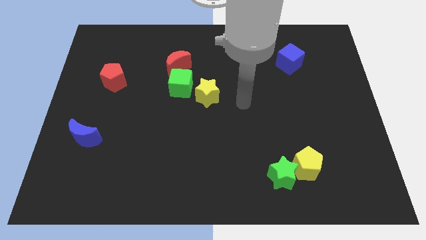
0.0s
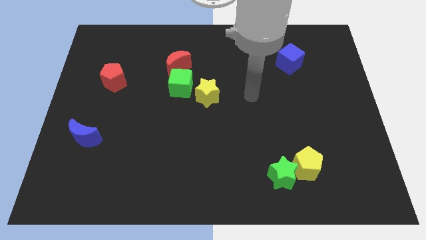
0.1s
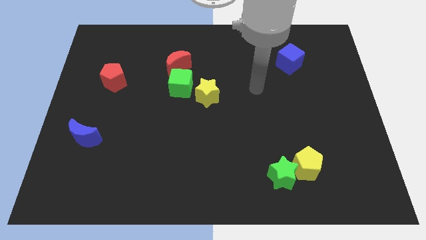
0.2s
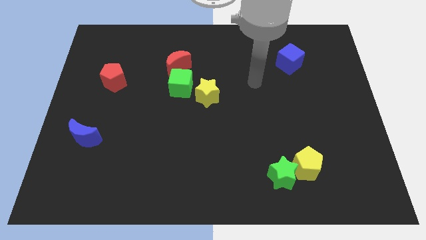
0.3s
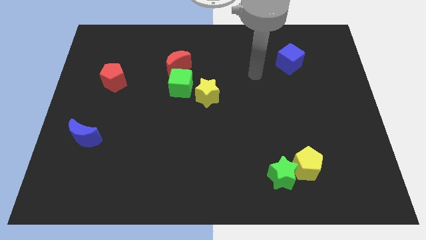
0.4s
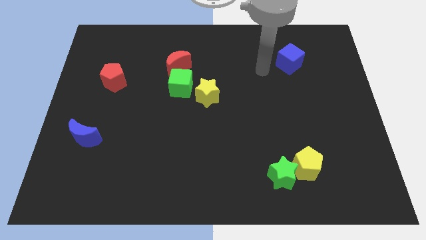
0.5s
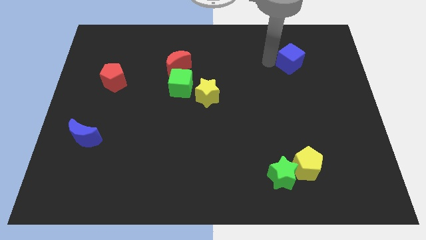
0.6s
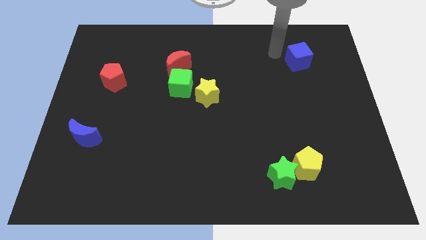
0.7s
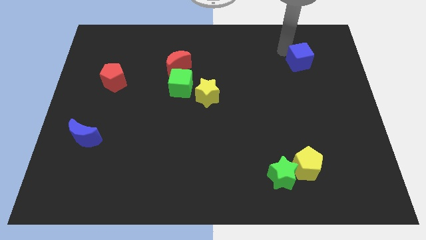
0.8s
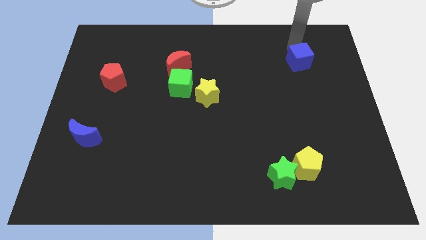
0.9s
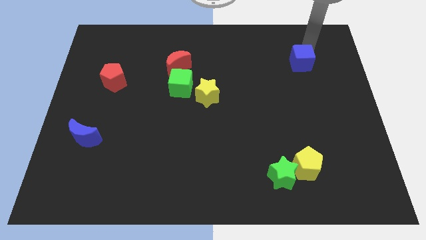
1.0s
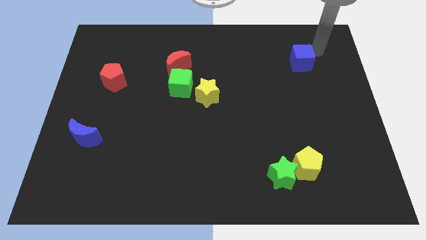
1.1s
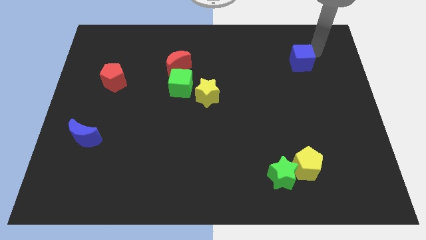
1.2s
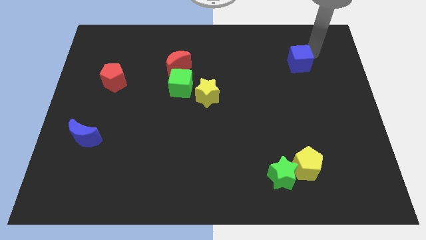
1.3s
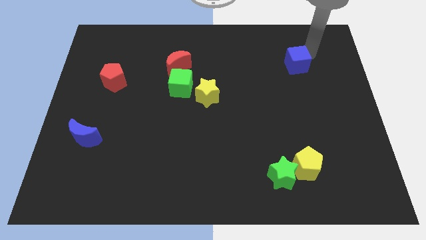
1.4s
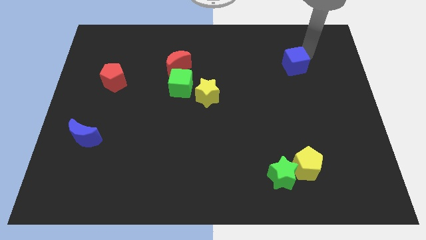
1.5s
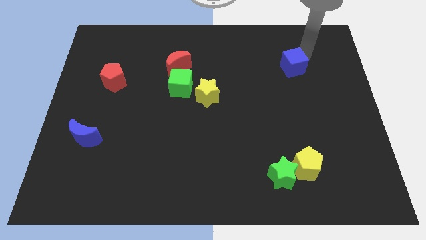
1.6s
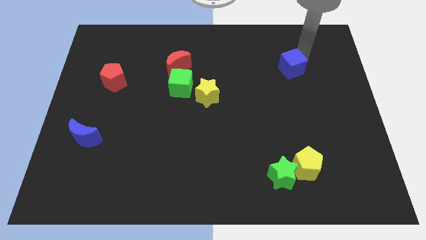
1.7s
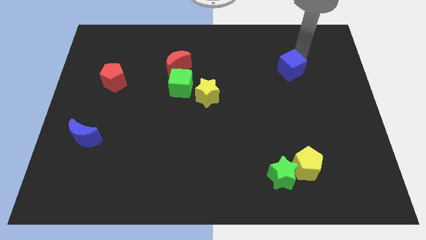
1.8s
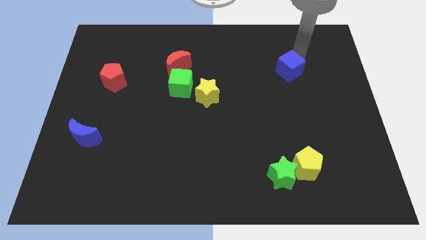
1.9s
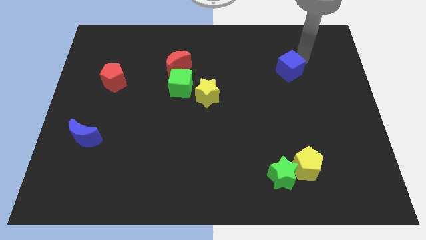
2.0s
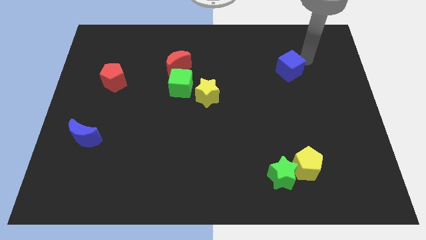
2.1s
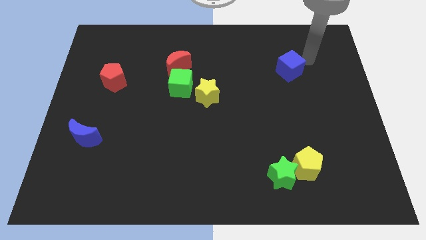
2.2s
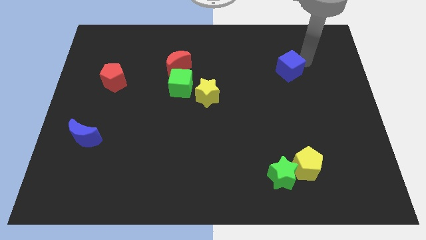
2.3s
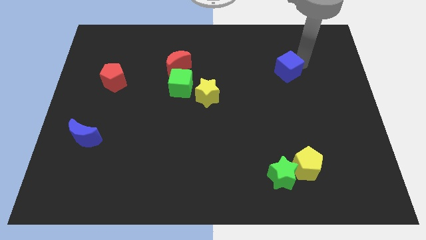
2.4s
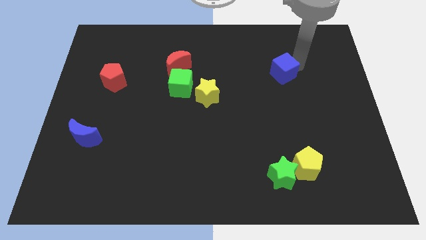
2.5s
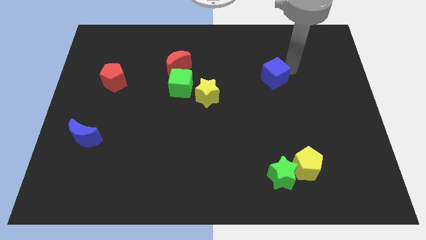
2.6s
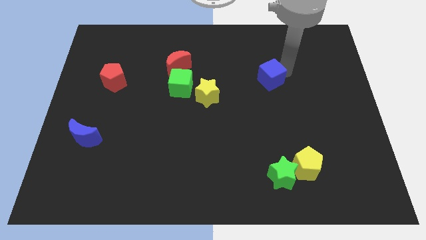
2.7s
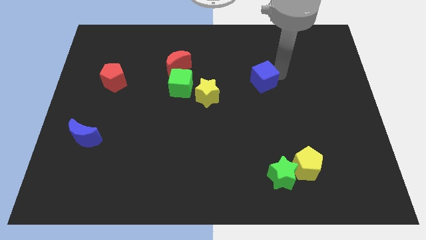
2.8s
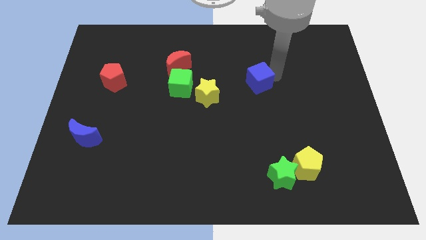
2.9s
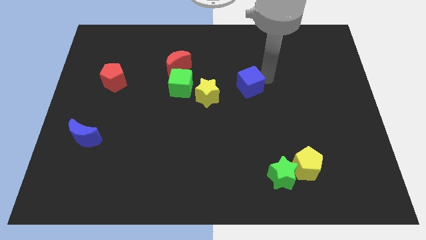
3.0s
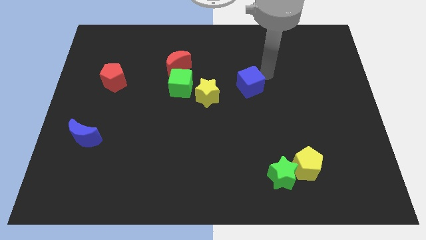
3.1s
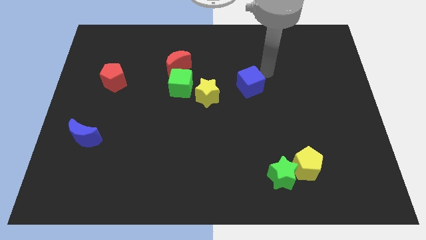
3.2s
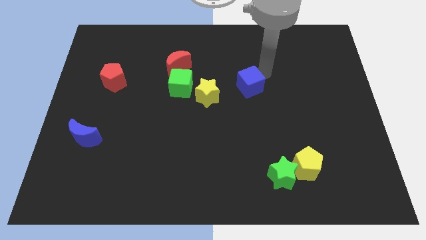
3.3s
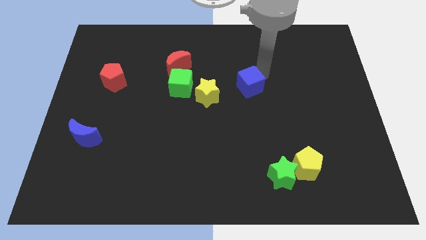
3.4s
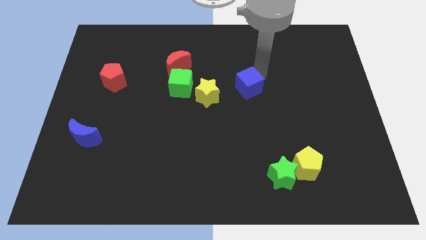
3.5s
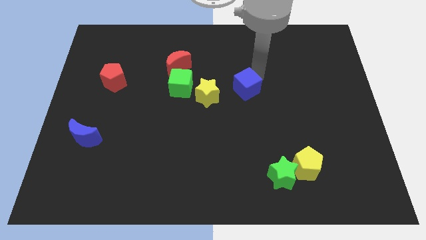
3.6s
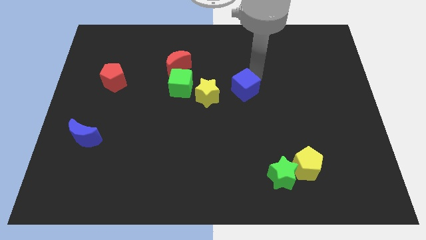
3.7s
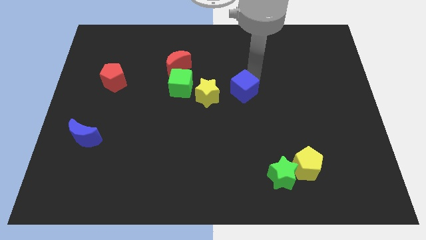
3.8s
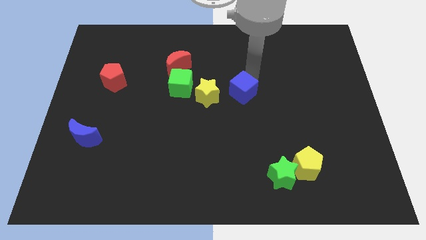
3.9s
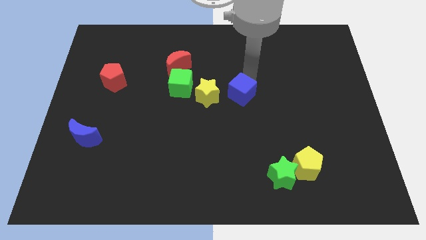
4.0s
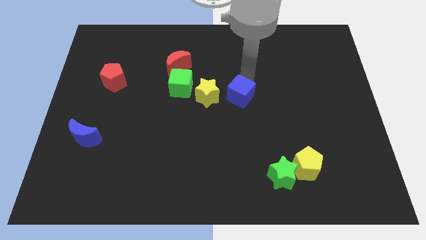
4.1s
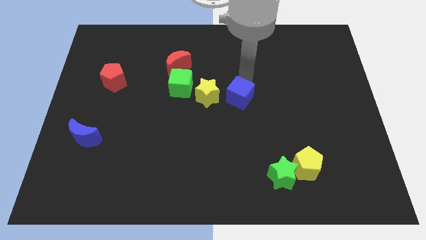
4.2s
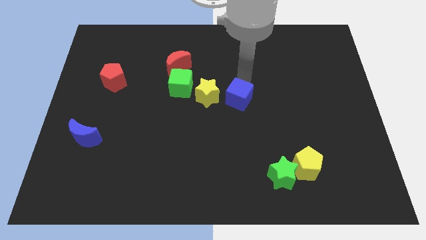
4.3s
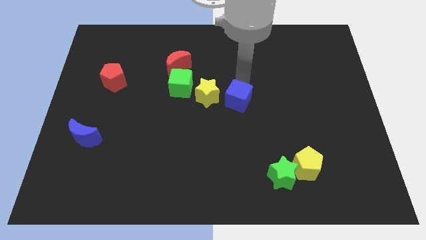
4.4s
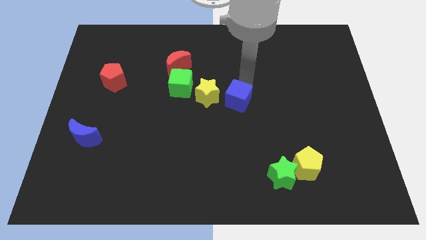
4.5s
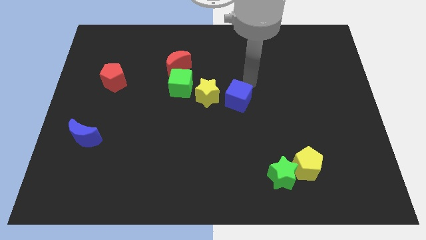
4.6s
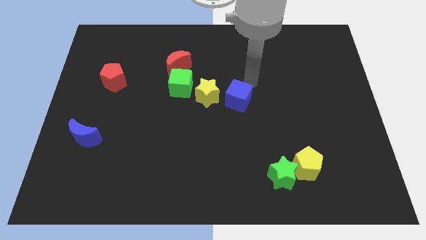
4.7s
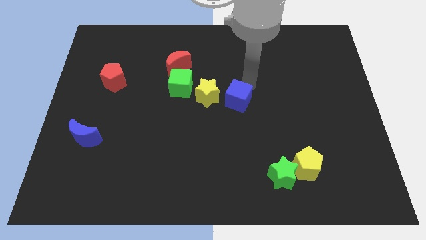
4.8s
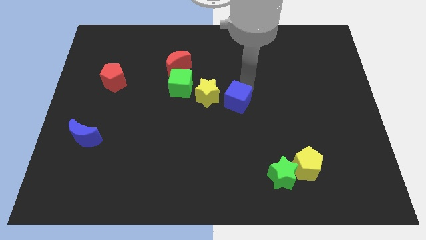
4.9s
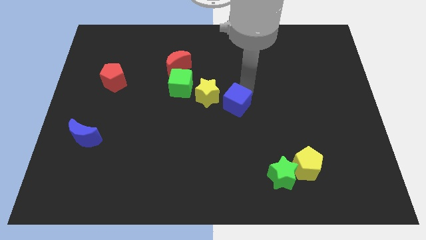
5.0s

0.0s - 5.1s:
slide the blue cube down and then left

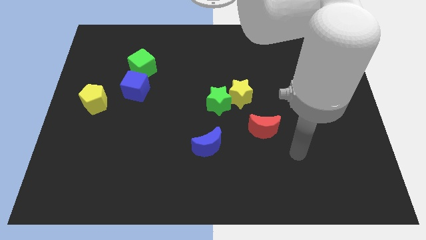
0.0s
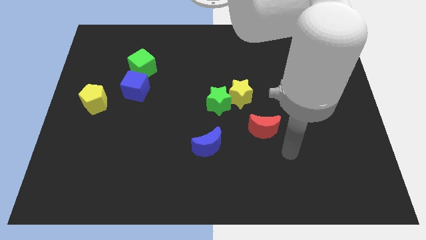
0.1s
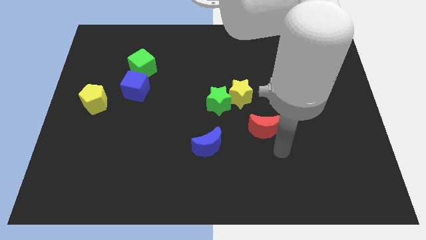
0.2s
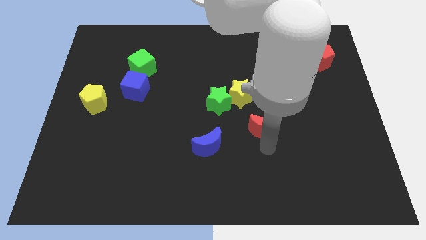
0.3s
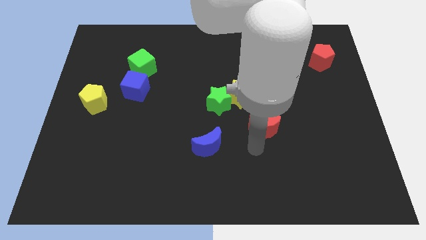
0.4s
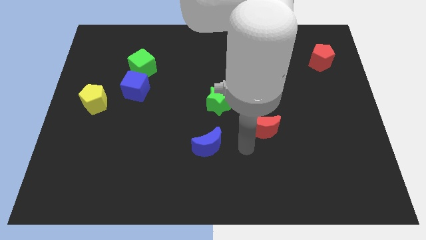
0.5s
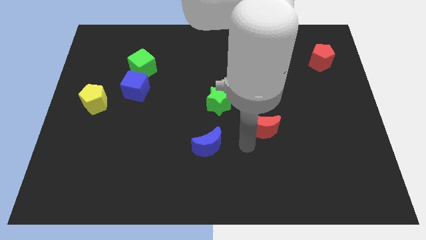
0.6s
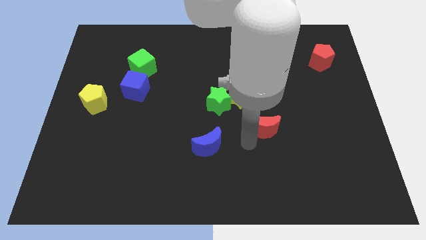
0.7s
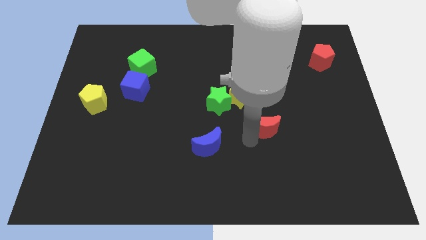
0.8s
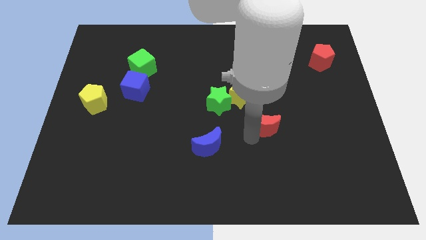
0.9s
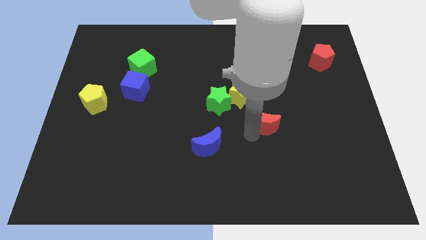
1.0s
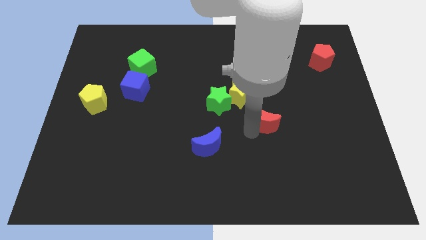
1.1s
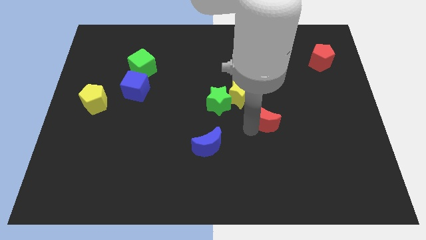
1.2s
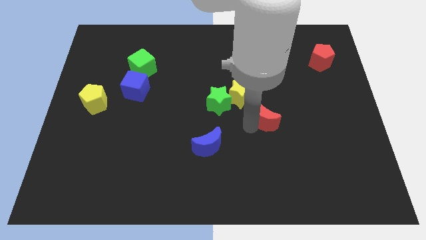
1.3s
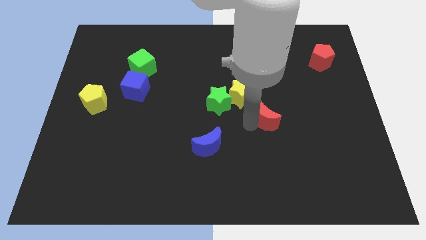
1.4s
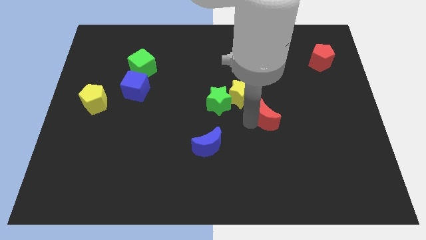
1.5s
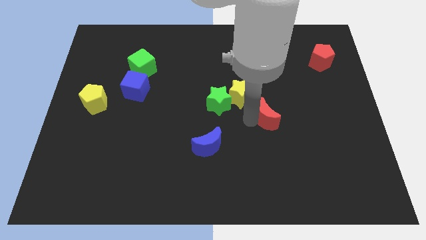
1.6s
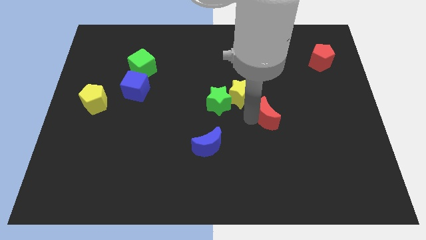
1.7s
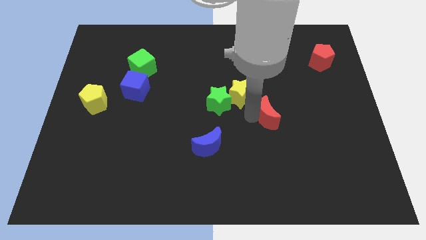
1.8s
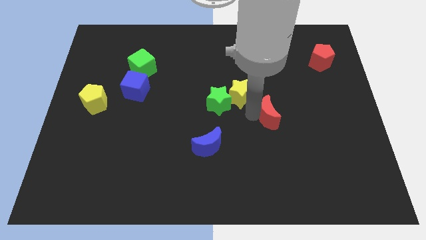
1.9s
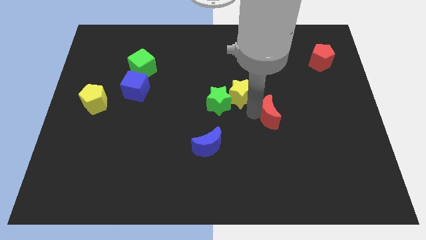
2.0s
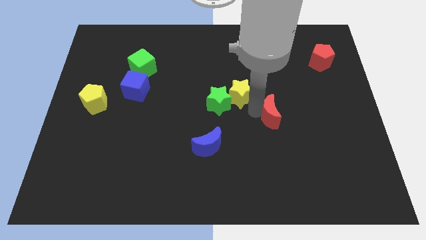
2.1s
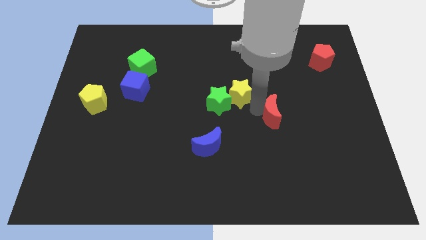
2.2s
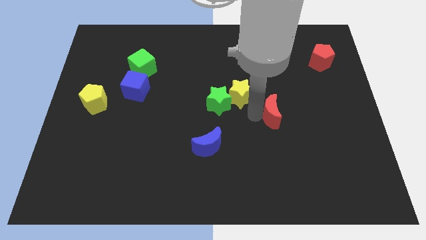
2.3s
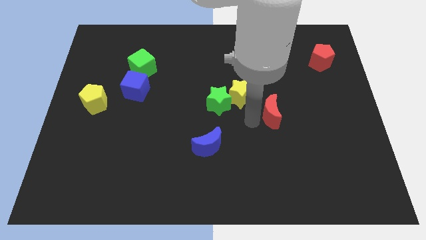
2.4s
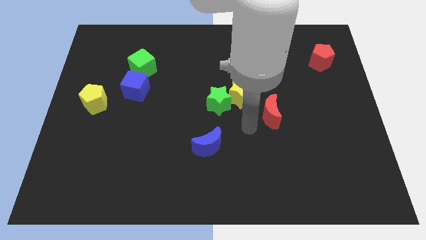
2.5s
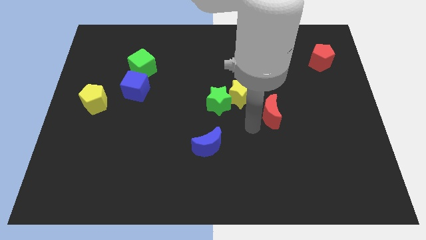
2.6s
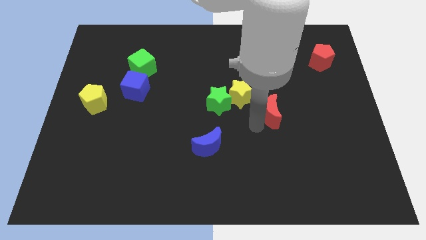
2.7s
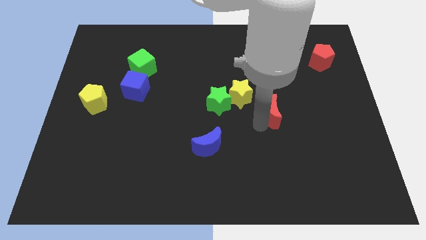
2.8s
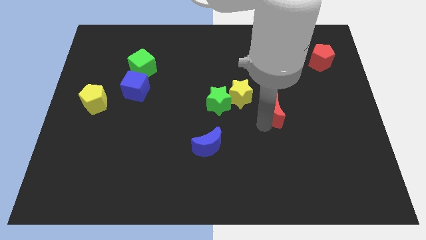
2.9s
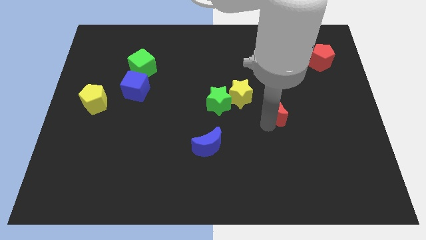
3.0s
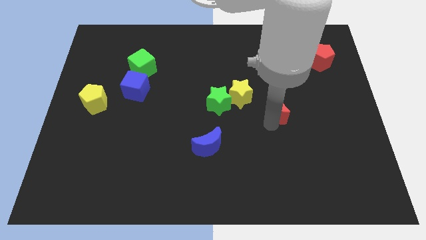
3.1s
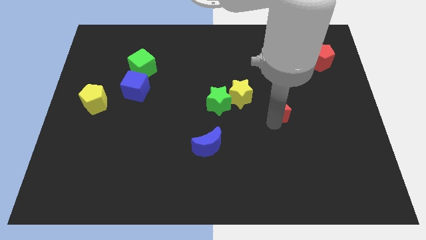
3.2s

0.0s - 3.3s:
slightly push the red moon up and then to the right
